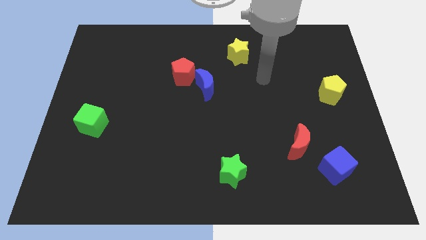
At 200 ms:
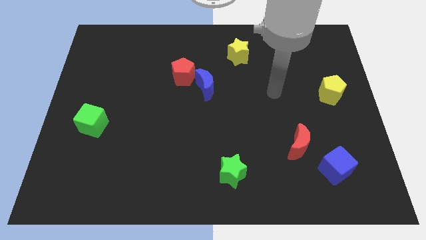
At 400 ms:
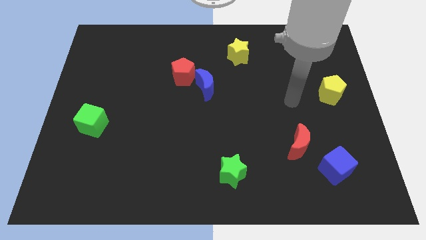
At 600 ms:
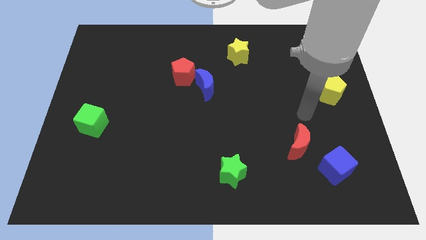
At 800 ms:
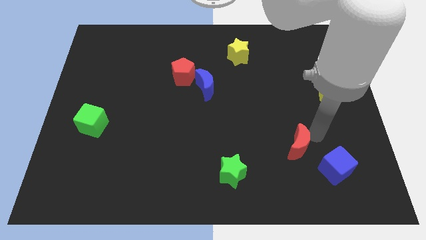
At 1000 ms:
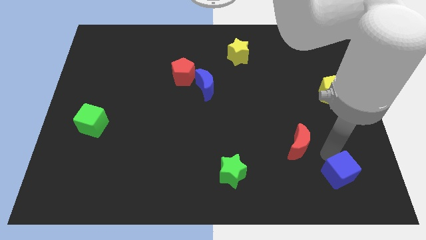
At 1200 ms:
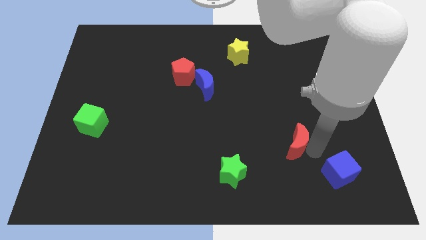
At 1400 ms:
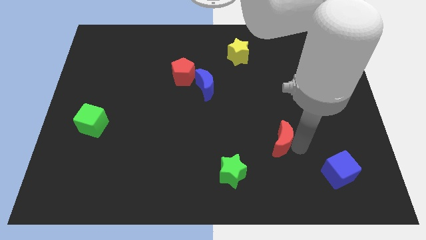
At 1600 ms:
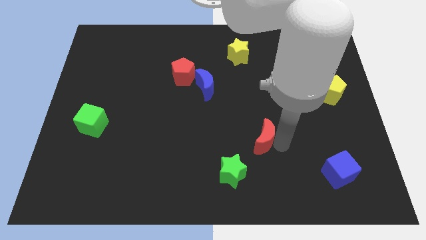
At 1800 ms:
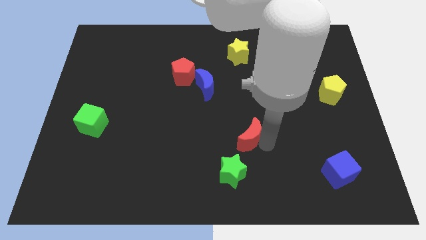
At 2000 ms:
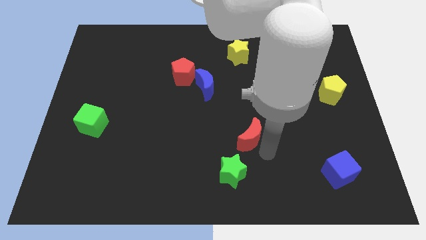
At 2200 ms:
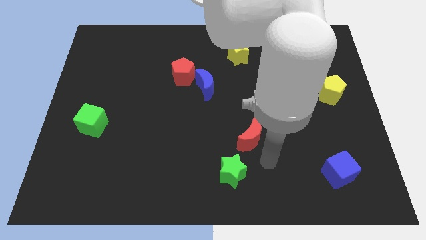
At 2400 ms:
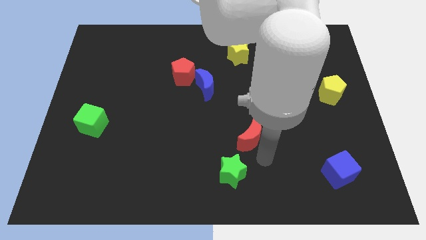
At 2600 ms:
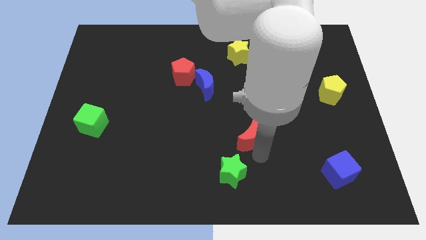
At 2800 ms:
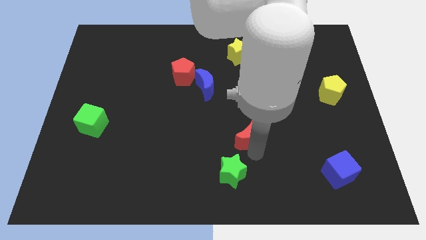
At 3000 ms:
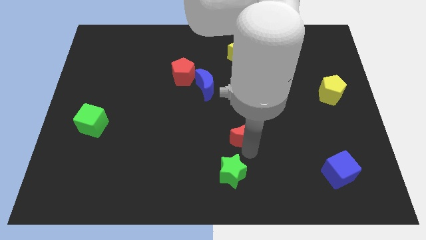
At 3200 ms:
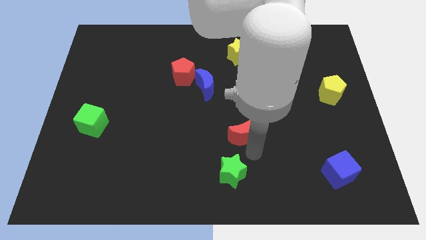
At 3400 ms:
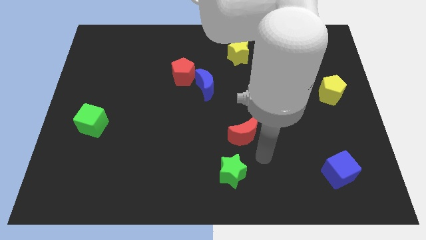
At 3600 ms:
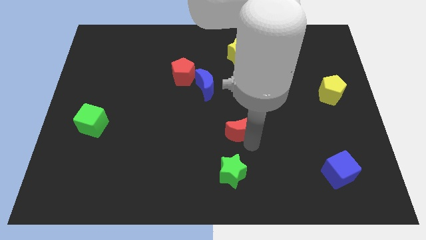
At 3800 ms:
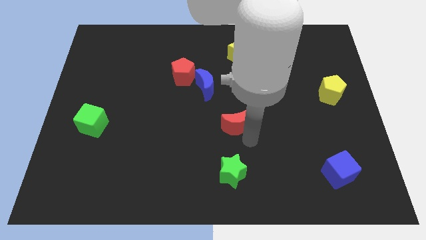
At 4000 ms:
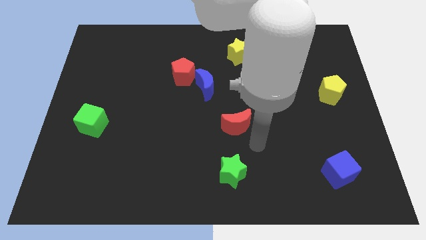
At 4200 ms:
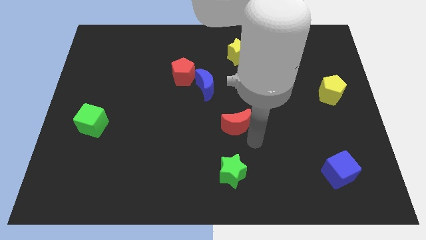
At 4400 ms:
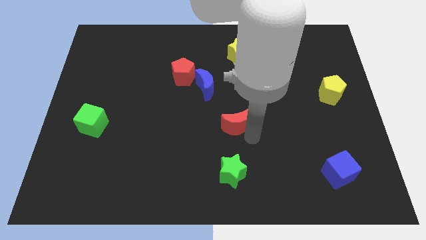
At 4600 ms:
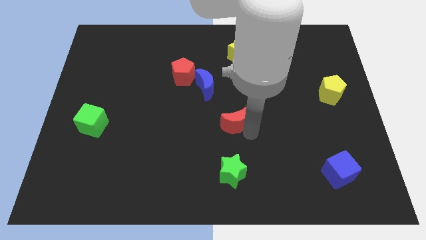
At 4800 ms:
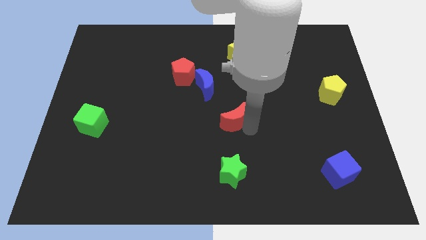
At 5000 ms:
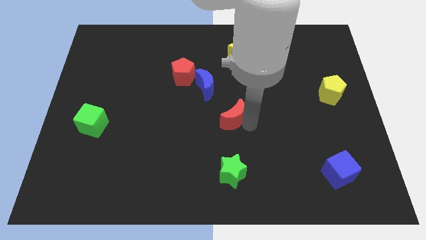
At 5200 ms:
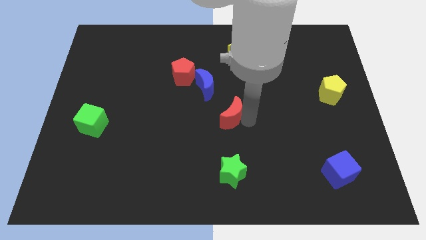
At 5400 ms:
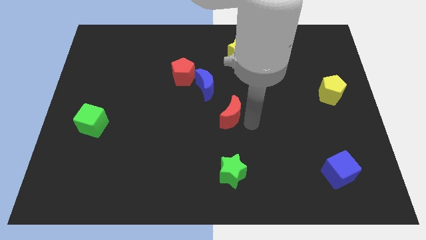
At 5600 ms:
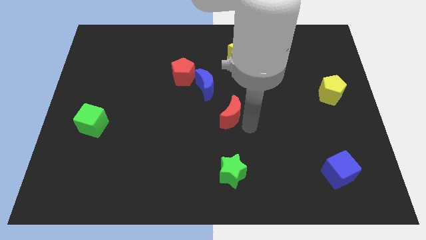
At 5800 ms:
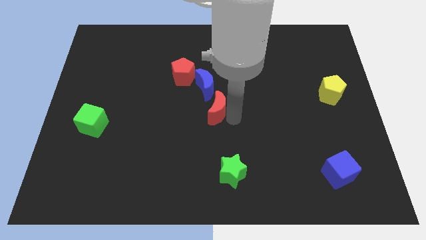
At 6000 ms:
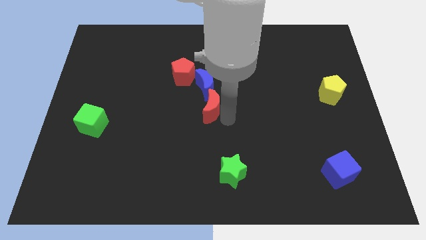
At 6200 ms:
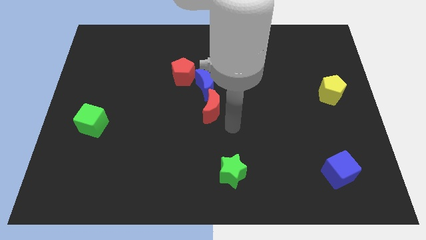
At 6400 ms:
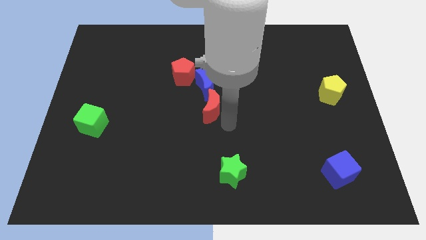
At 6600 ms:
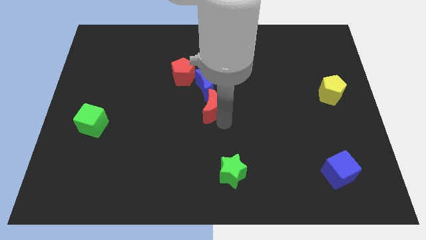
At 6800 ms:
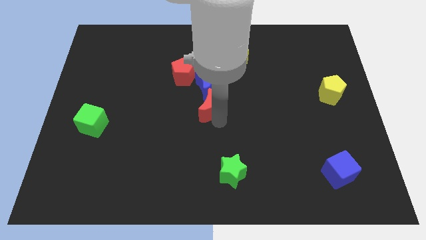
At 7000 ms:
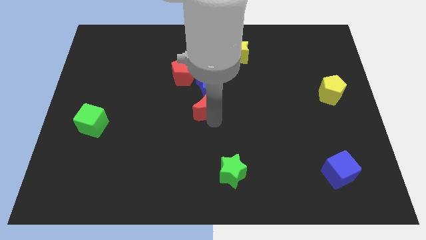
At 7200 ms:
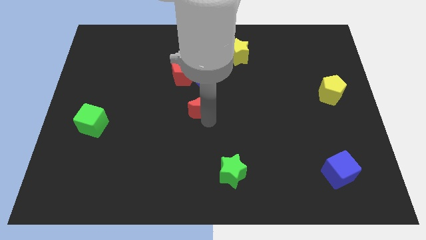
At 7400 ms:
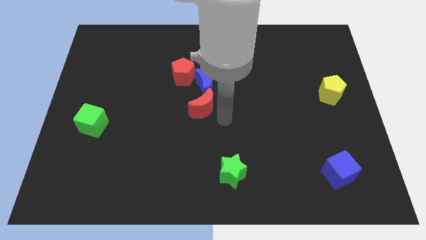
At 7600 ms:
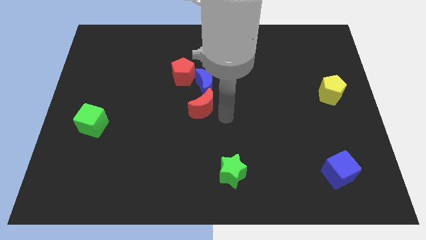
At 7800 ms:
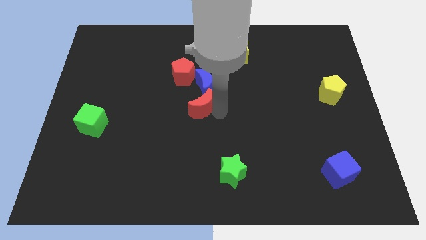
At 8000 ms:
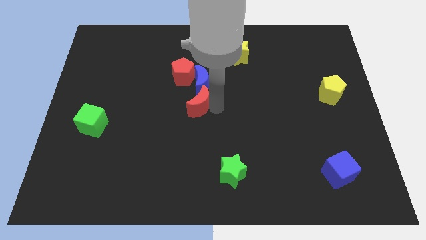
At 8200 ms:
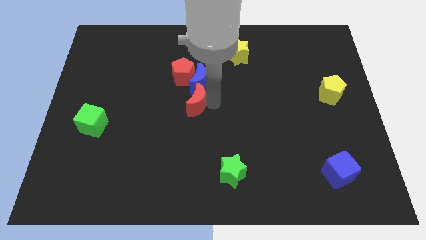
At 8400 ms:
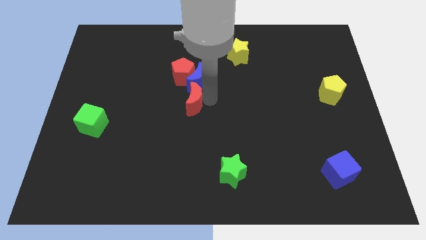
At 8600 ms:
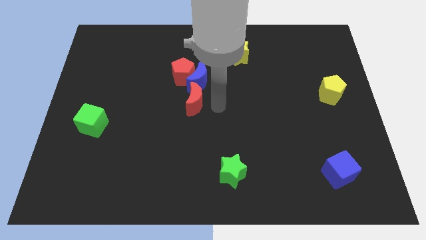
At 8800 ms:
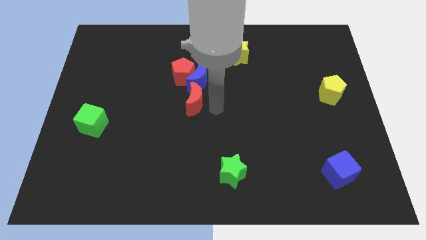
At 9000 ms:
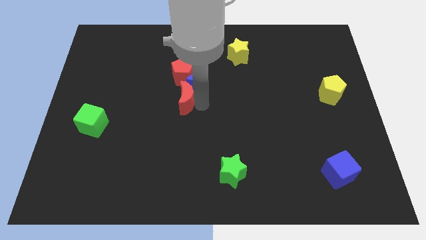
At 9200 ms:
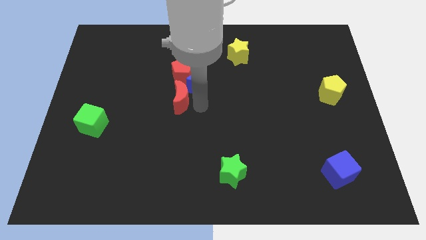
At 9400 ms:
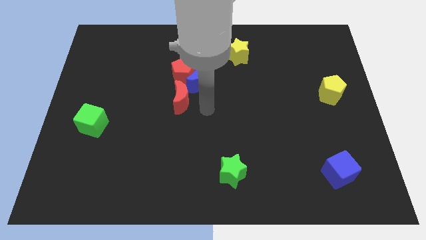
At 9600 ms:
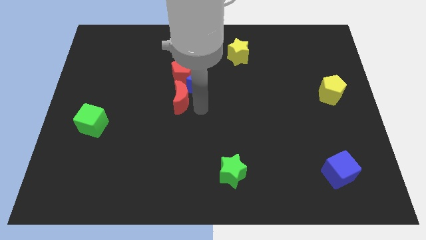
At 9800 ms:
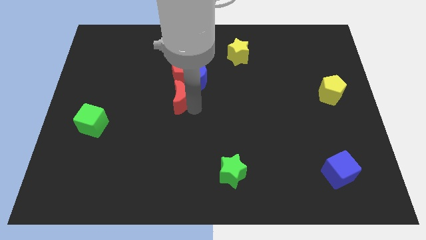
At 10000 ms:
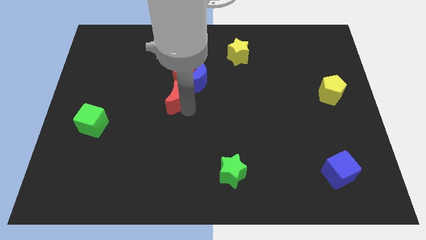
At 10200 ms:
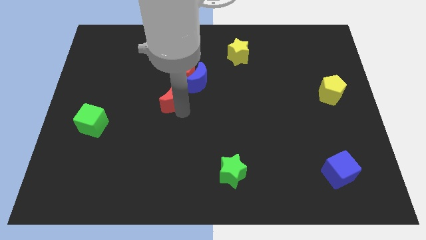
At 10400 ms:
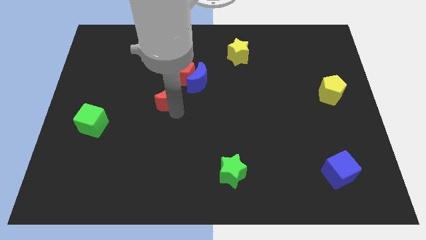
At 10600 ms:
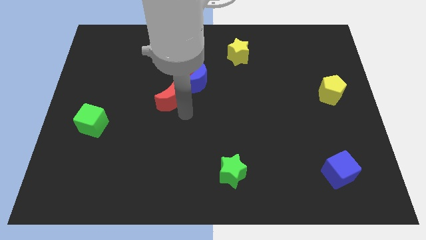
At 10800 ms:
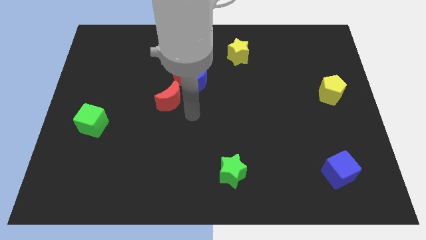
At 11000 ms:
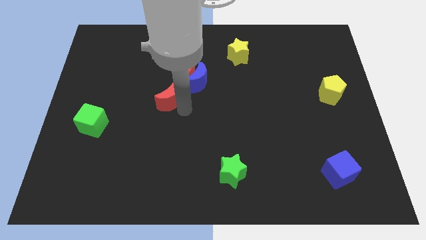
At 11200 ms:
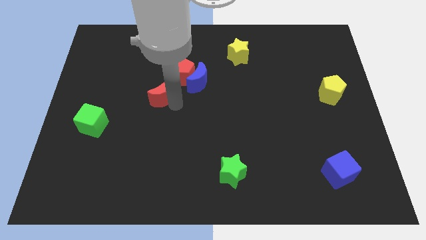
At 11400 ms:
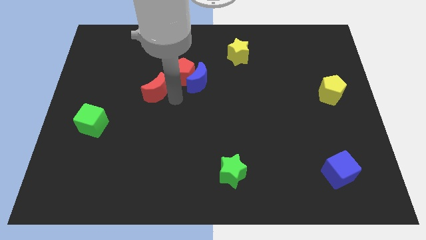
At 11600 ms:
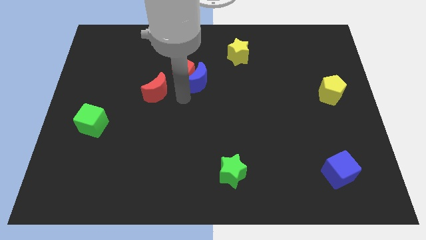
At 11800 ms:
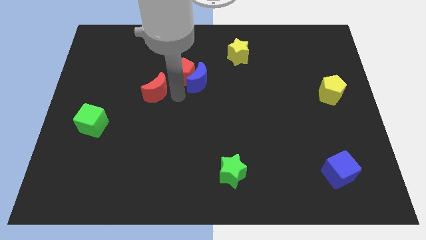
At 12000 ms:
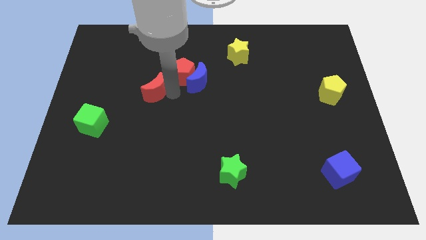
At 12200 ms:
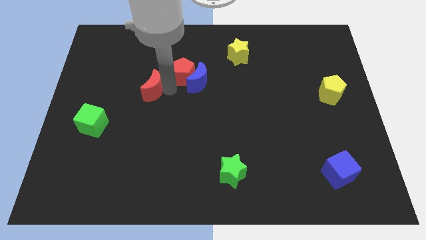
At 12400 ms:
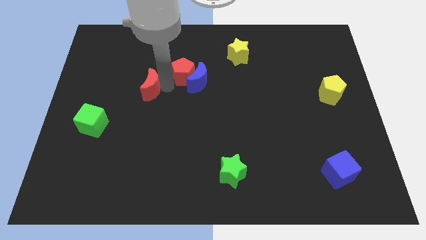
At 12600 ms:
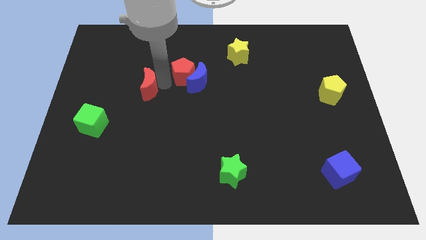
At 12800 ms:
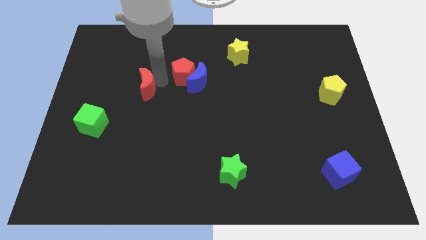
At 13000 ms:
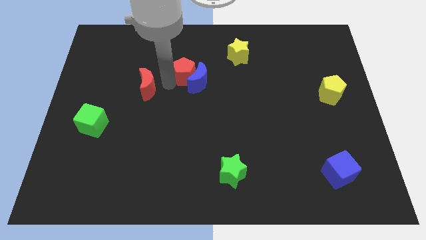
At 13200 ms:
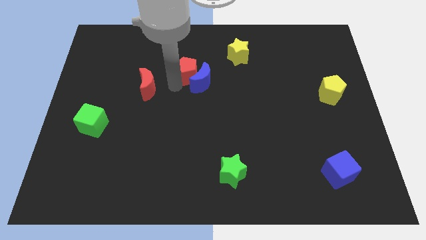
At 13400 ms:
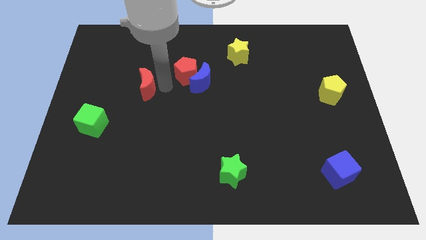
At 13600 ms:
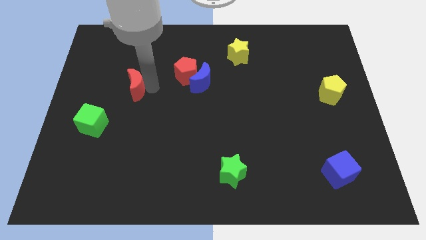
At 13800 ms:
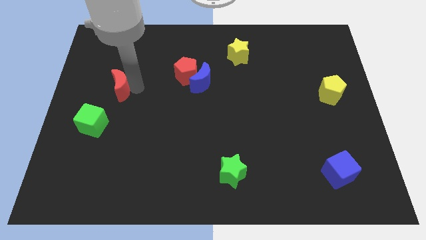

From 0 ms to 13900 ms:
move the red moon to the top side of the green cube
